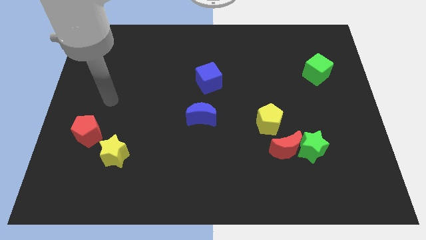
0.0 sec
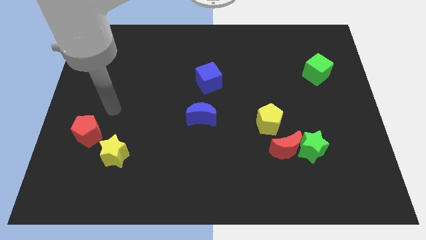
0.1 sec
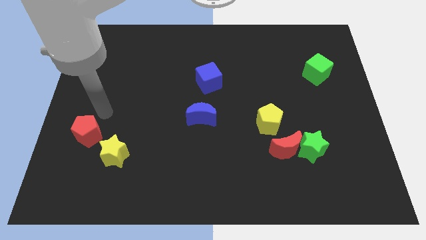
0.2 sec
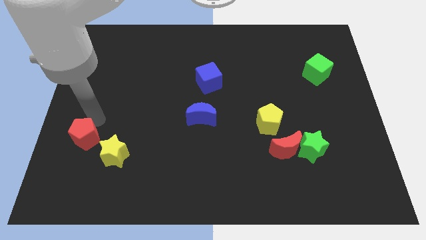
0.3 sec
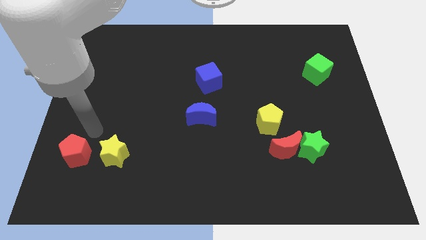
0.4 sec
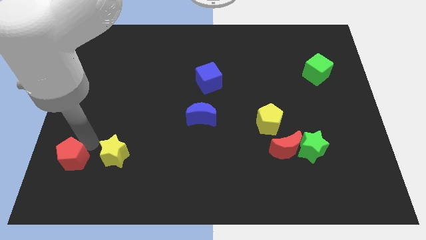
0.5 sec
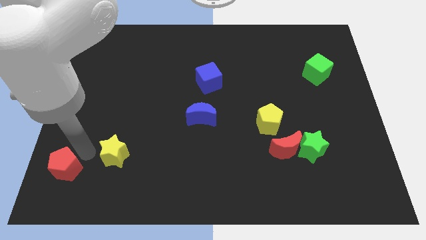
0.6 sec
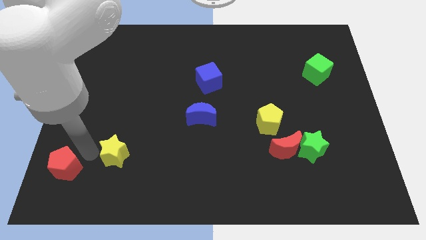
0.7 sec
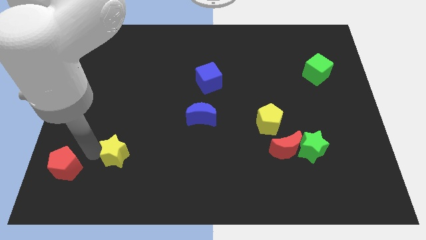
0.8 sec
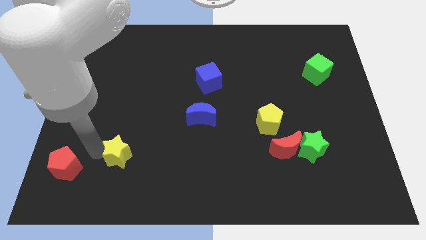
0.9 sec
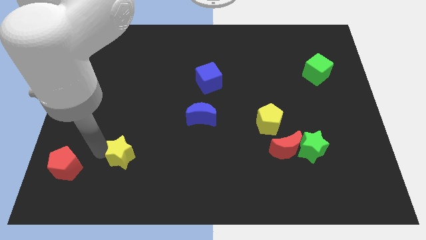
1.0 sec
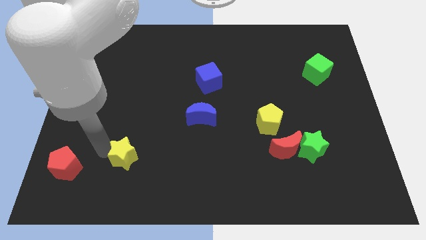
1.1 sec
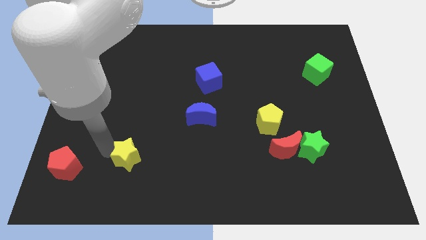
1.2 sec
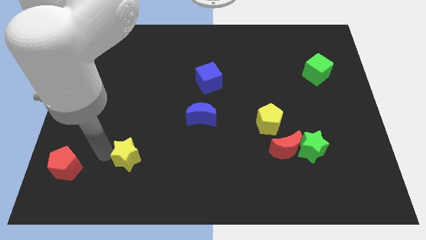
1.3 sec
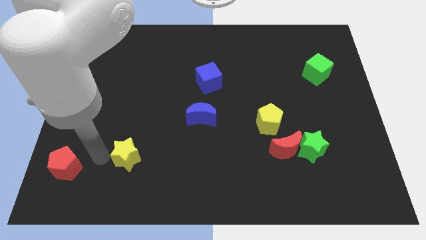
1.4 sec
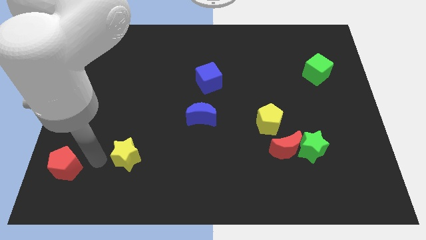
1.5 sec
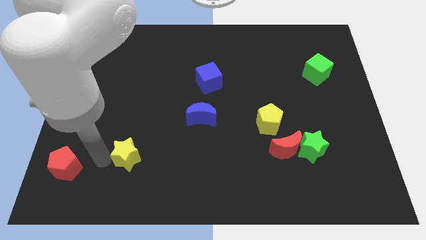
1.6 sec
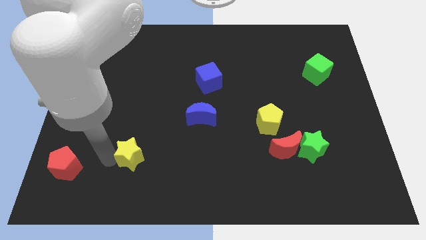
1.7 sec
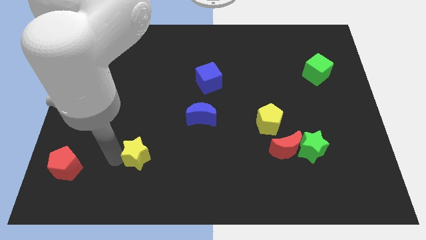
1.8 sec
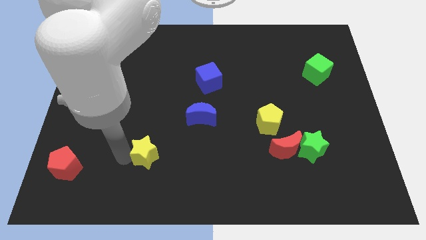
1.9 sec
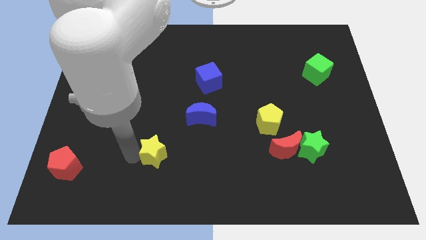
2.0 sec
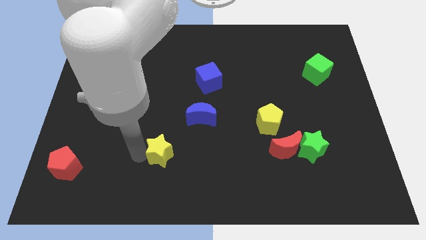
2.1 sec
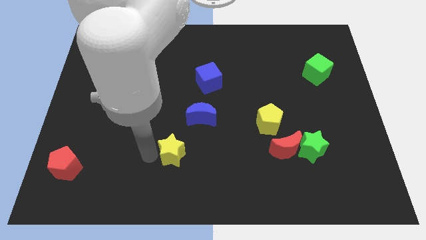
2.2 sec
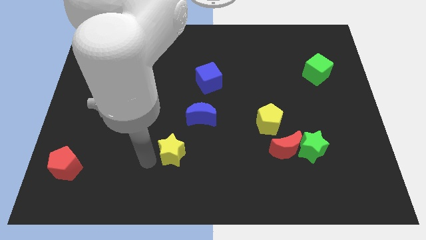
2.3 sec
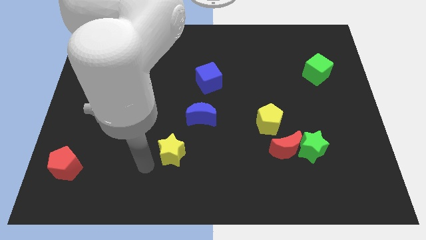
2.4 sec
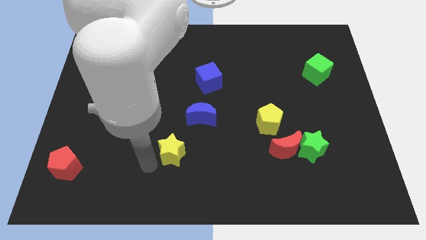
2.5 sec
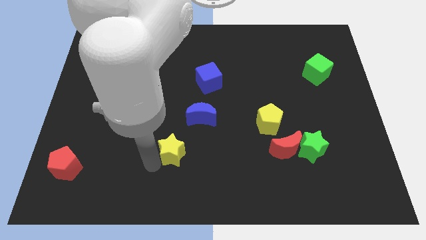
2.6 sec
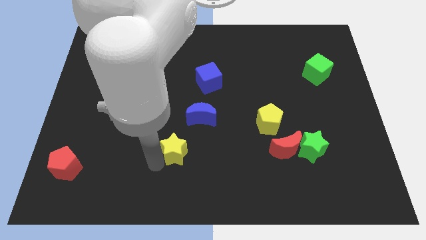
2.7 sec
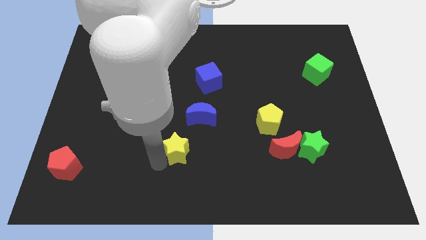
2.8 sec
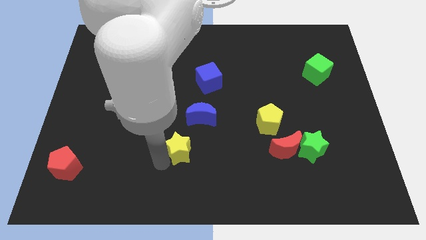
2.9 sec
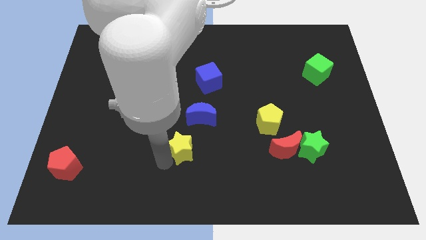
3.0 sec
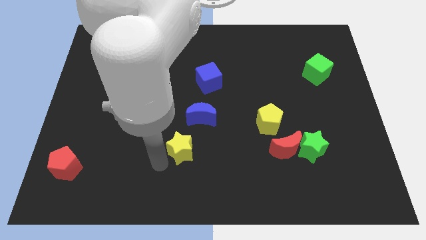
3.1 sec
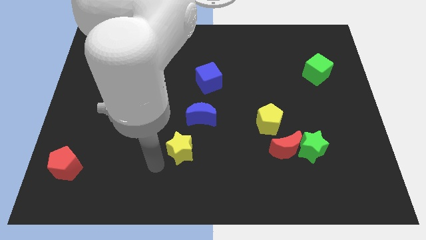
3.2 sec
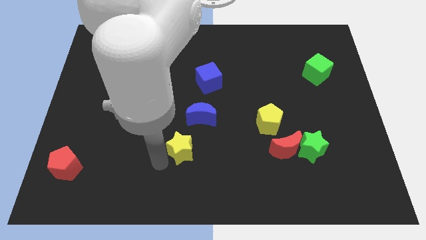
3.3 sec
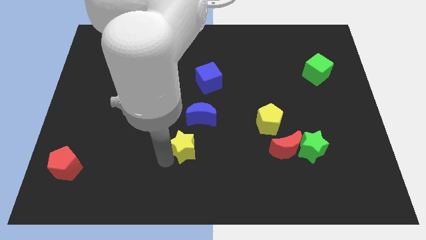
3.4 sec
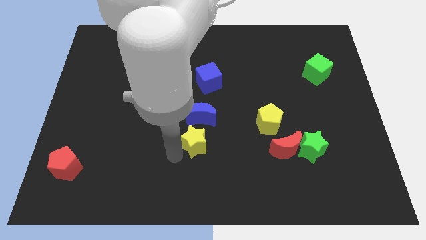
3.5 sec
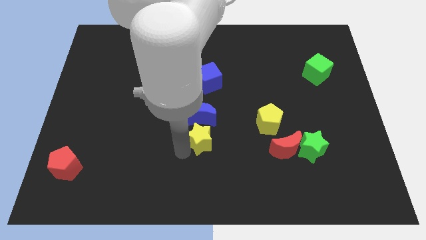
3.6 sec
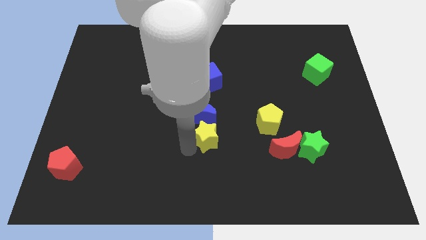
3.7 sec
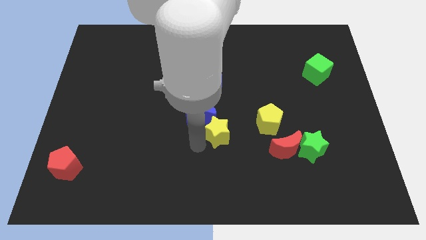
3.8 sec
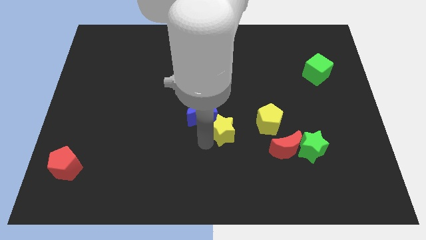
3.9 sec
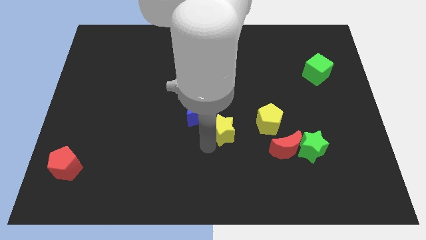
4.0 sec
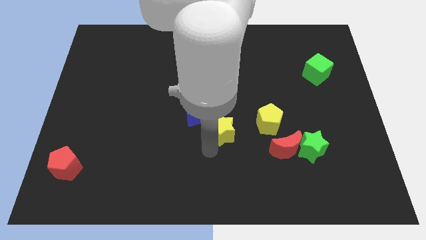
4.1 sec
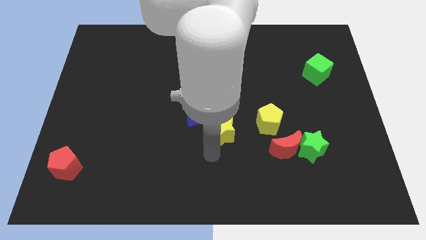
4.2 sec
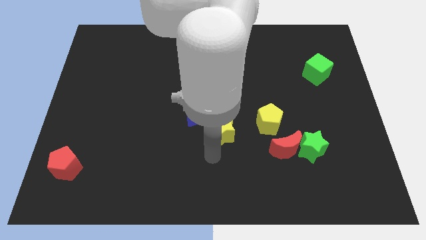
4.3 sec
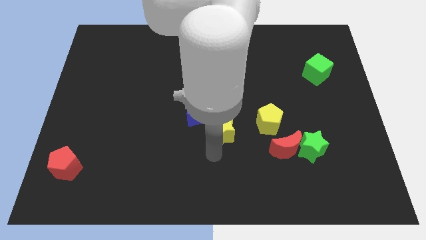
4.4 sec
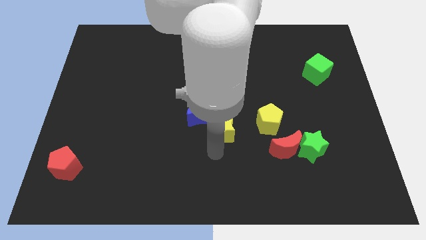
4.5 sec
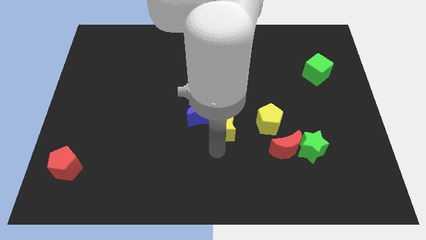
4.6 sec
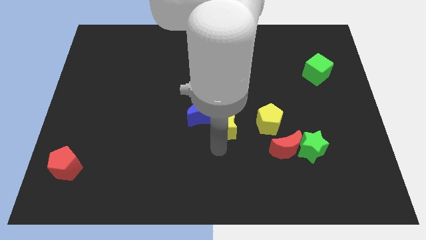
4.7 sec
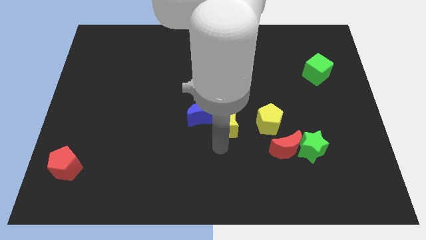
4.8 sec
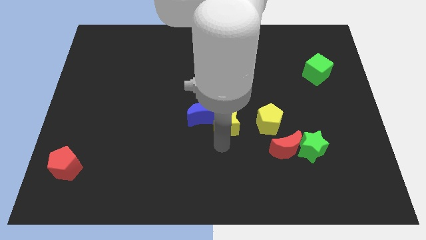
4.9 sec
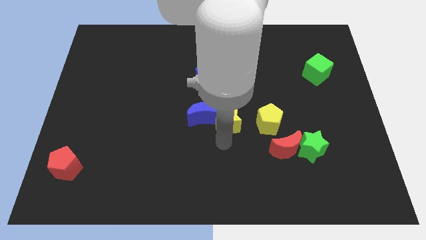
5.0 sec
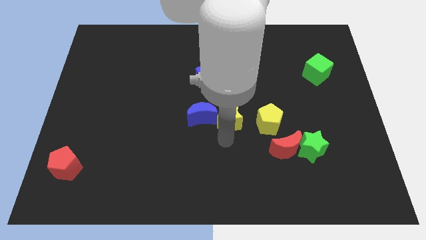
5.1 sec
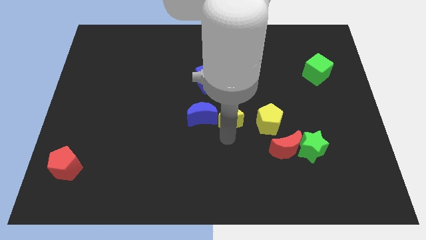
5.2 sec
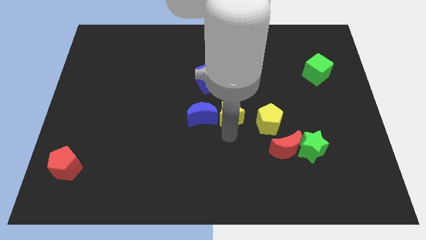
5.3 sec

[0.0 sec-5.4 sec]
slide the yellow star diagonally up and to the left of the yellow pentagon

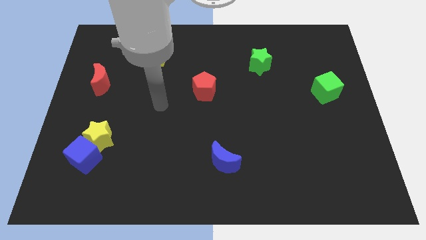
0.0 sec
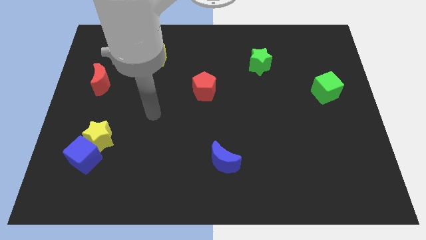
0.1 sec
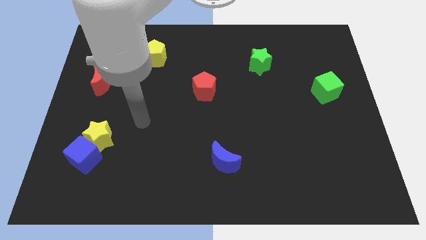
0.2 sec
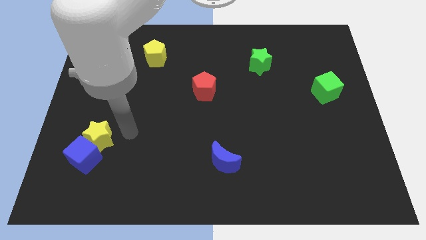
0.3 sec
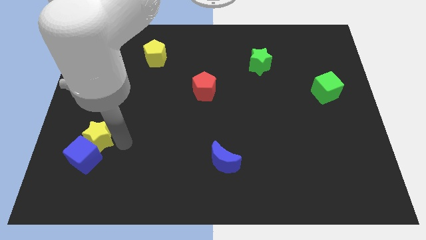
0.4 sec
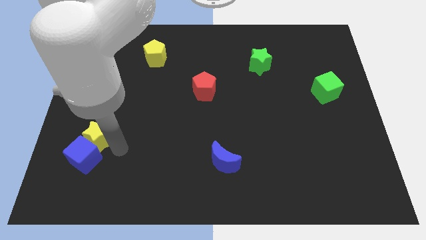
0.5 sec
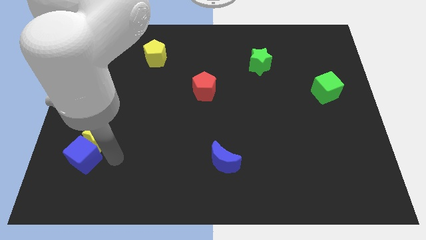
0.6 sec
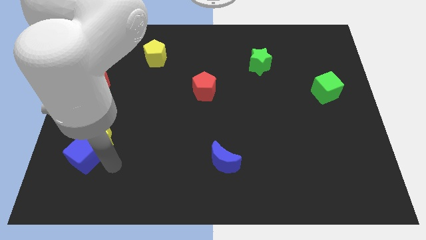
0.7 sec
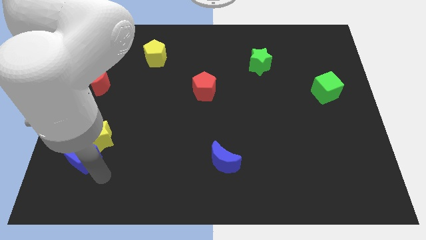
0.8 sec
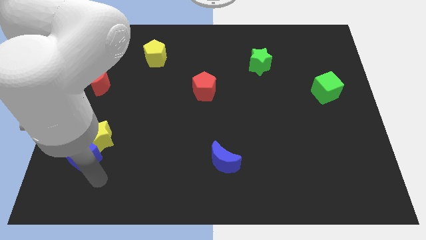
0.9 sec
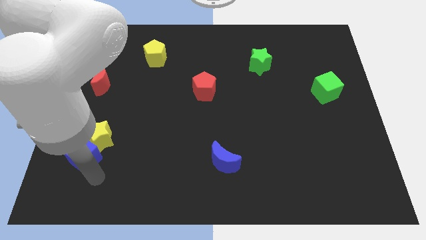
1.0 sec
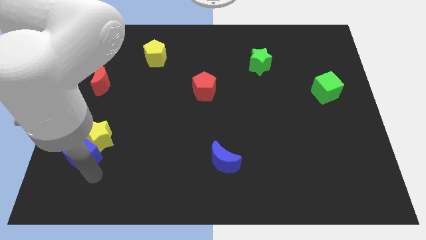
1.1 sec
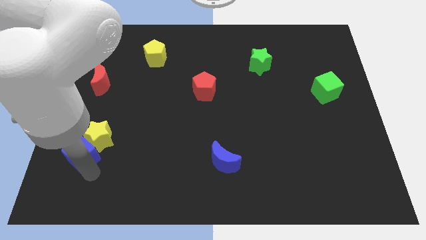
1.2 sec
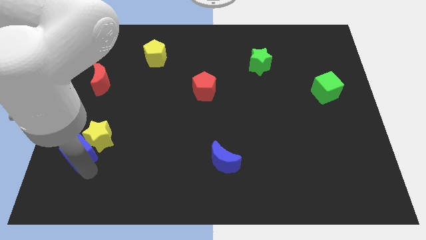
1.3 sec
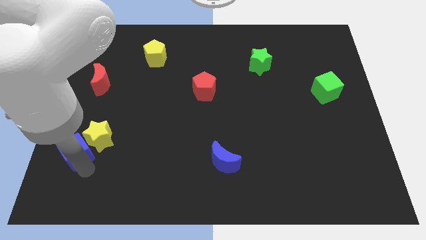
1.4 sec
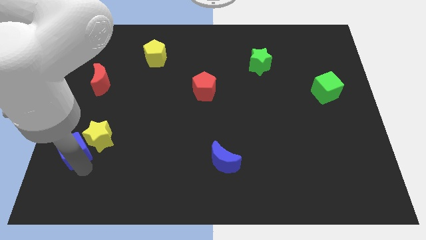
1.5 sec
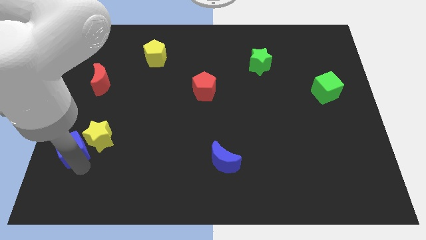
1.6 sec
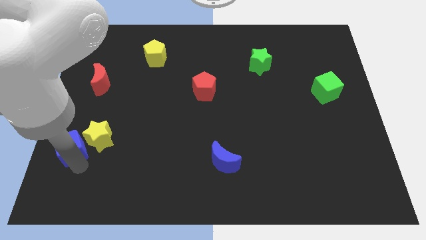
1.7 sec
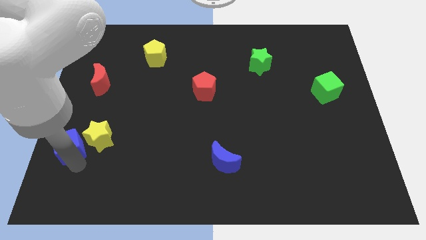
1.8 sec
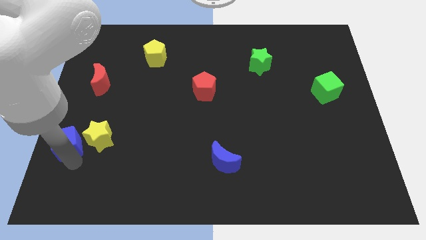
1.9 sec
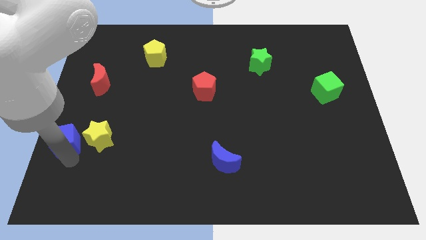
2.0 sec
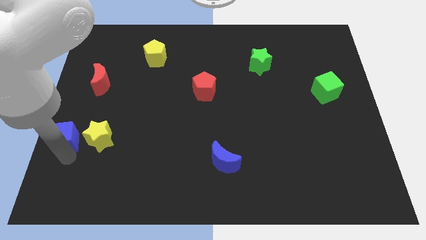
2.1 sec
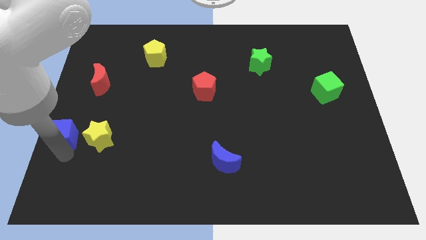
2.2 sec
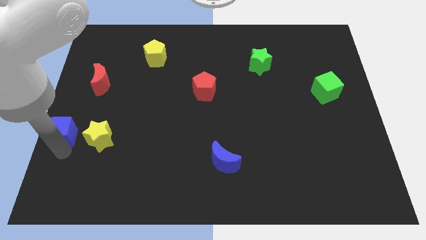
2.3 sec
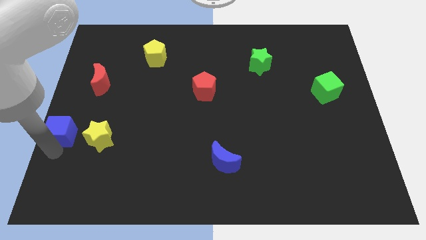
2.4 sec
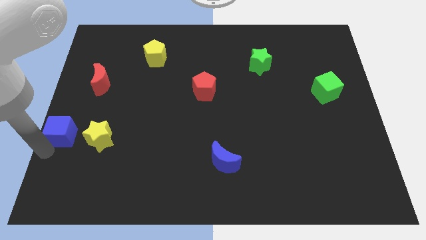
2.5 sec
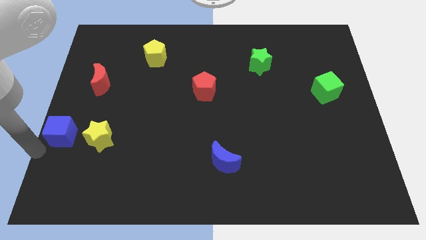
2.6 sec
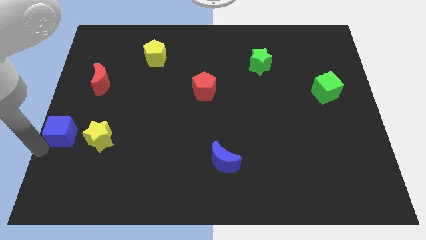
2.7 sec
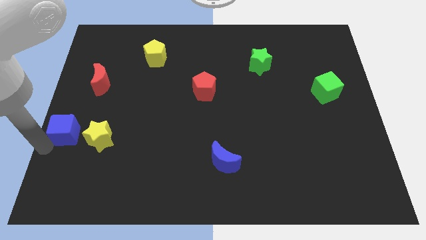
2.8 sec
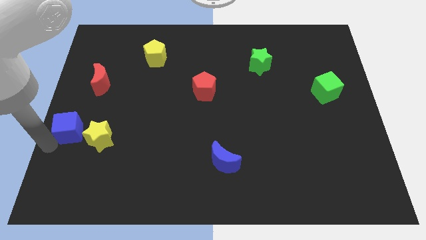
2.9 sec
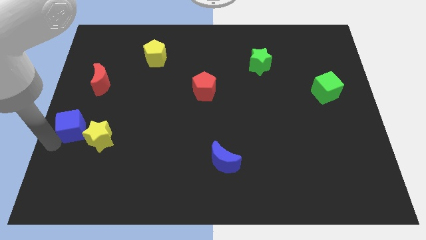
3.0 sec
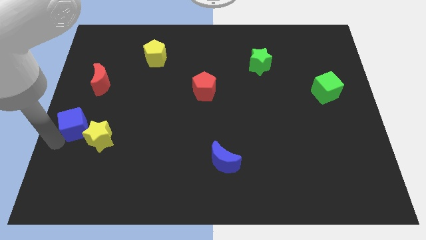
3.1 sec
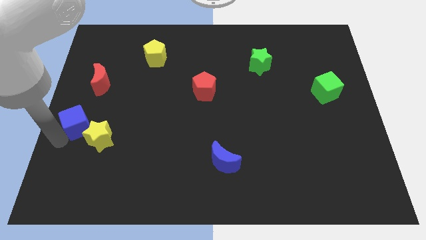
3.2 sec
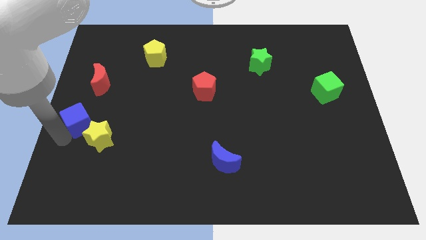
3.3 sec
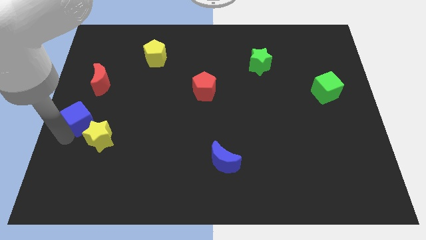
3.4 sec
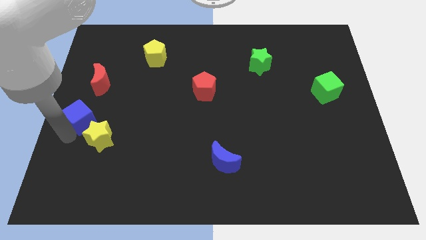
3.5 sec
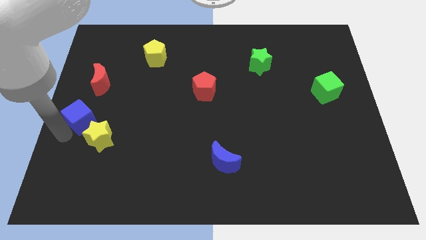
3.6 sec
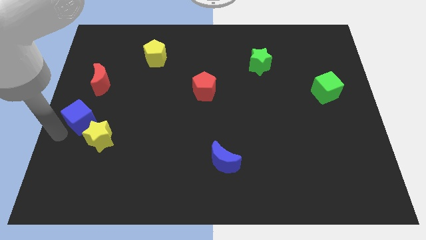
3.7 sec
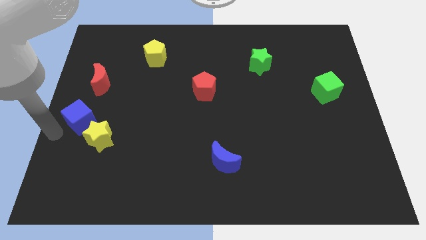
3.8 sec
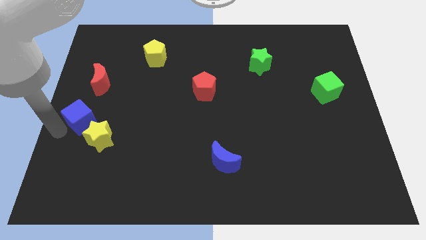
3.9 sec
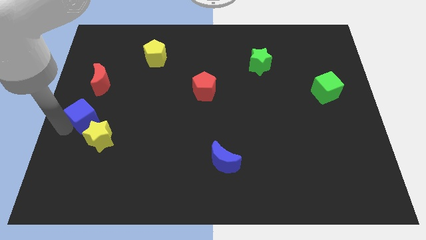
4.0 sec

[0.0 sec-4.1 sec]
move the blue cube to the top side of the yellow star
